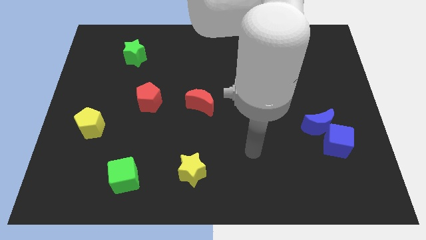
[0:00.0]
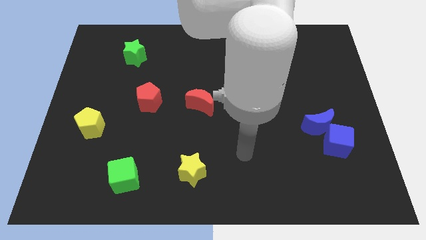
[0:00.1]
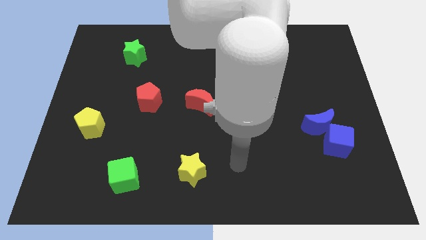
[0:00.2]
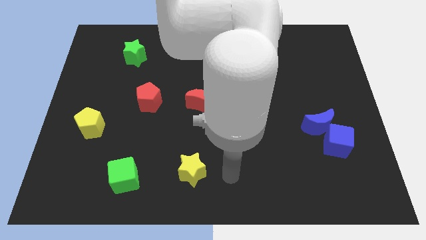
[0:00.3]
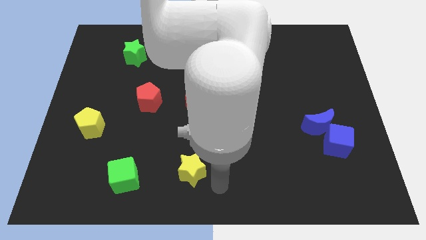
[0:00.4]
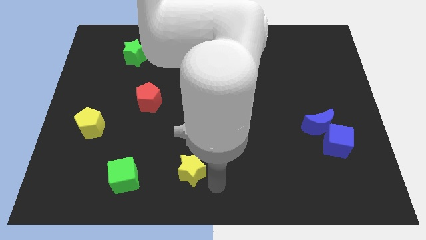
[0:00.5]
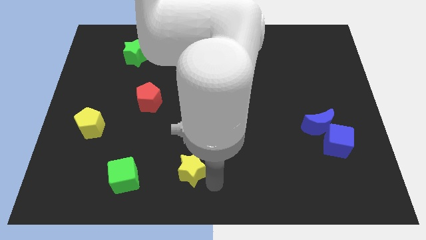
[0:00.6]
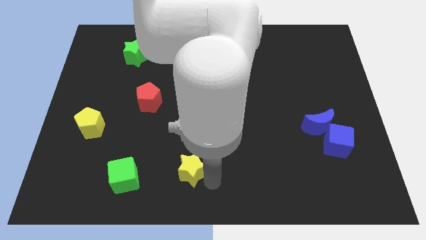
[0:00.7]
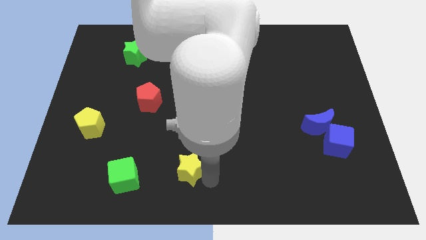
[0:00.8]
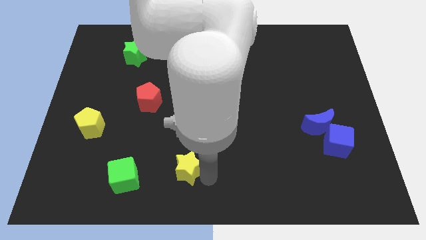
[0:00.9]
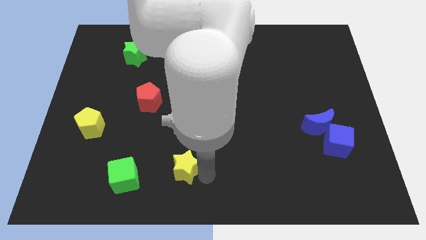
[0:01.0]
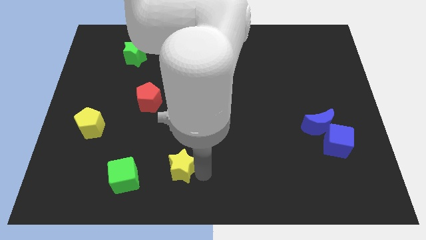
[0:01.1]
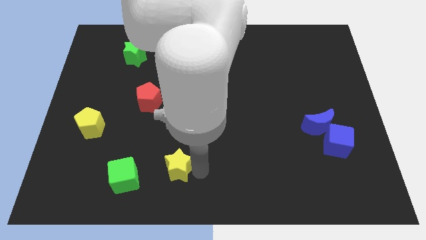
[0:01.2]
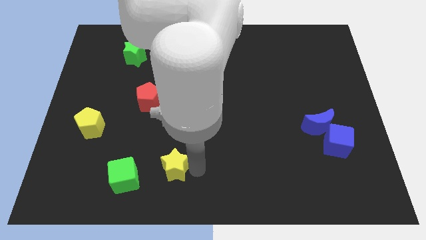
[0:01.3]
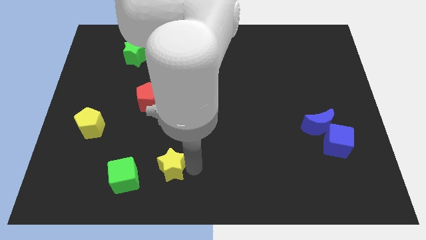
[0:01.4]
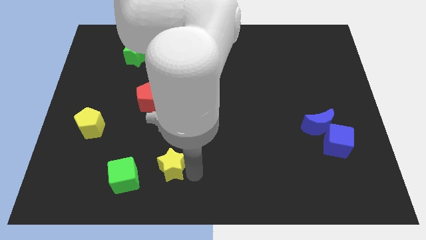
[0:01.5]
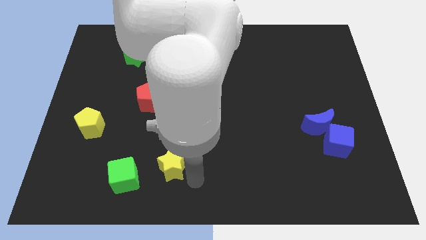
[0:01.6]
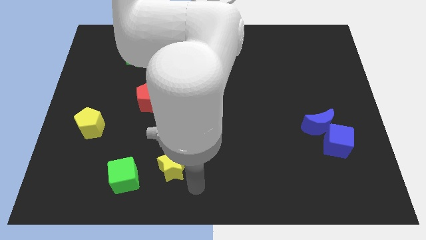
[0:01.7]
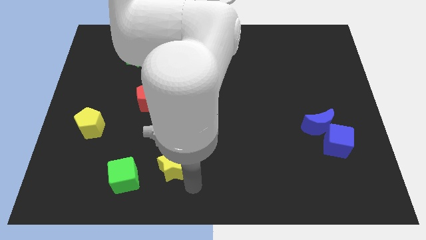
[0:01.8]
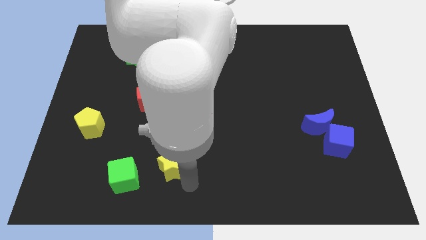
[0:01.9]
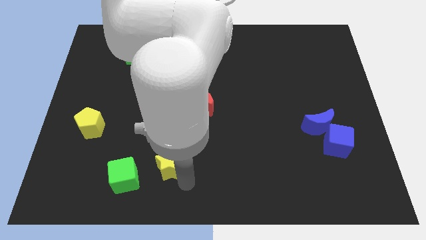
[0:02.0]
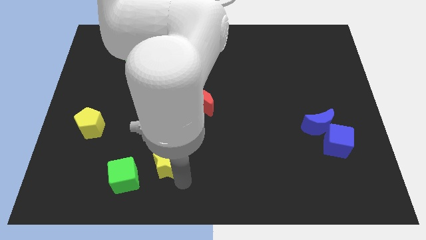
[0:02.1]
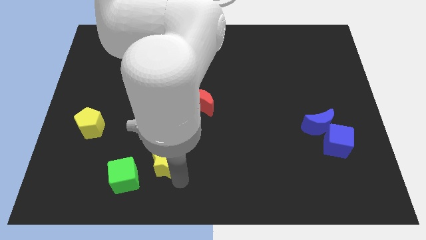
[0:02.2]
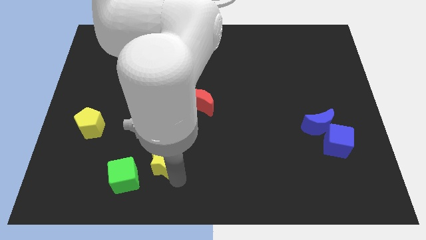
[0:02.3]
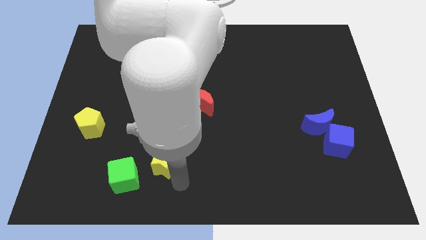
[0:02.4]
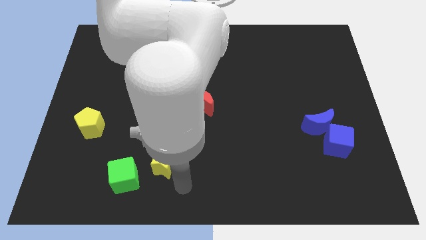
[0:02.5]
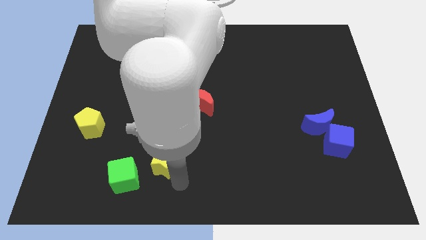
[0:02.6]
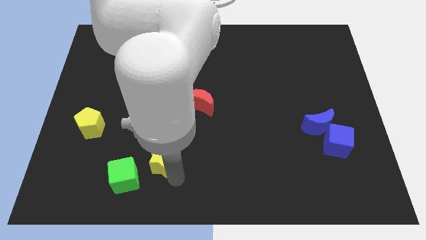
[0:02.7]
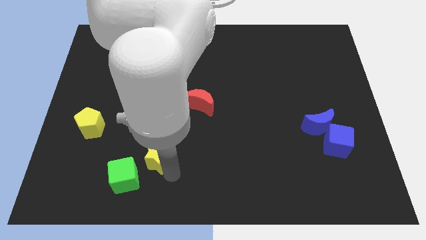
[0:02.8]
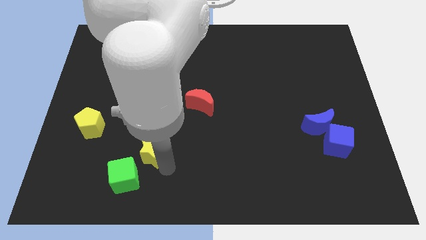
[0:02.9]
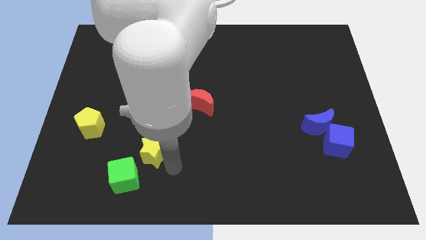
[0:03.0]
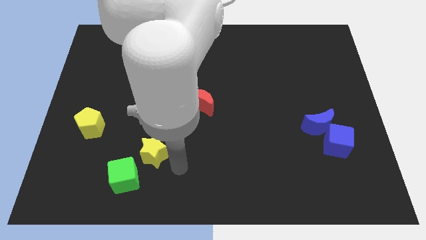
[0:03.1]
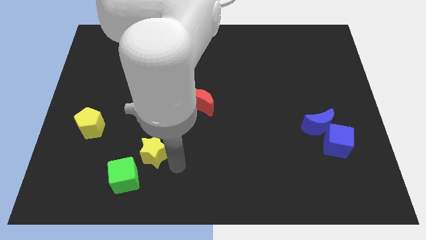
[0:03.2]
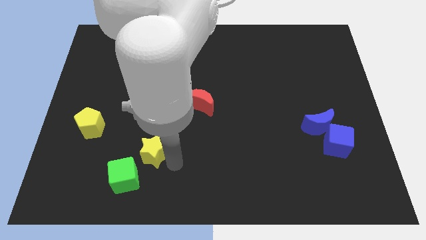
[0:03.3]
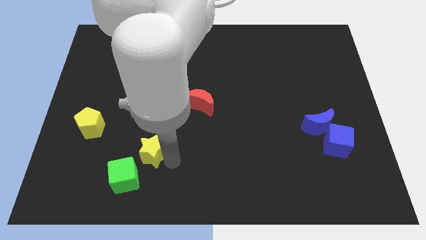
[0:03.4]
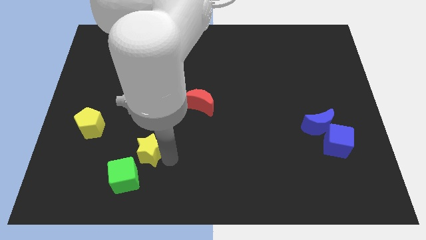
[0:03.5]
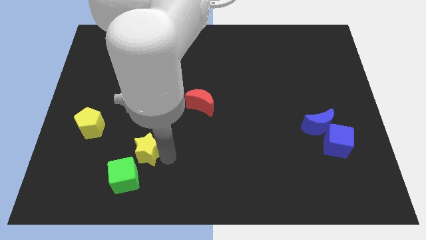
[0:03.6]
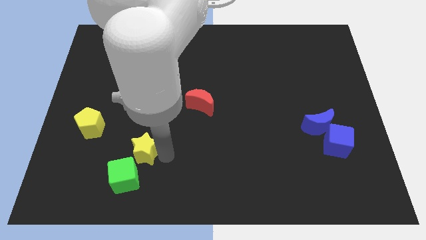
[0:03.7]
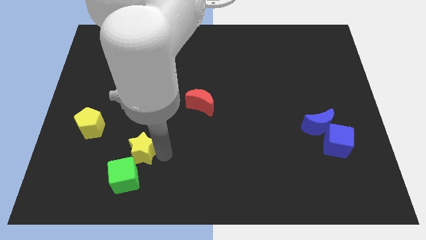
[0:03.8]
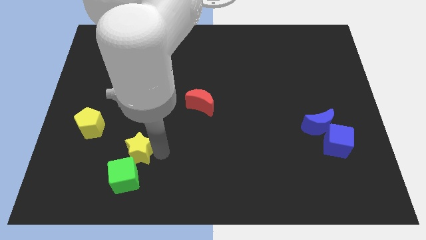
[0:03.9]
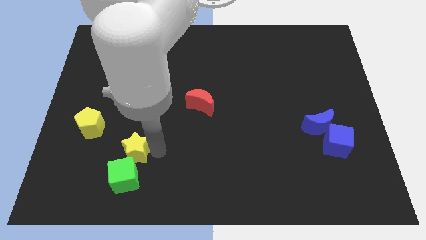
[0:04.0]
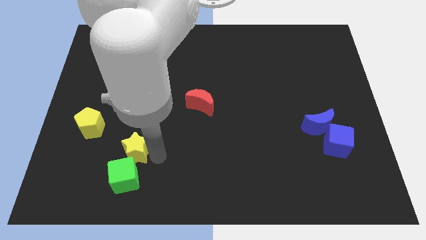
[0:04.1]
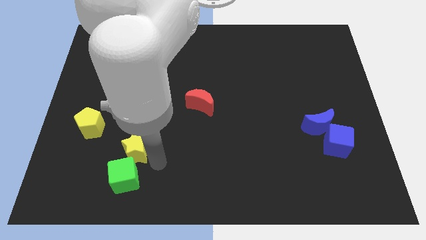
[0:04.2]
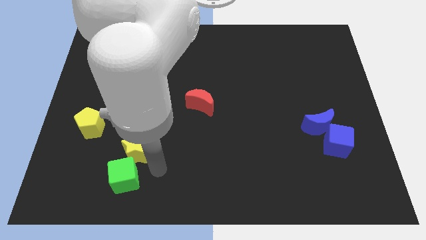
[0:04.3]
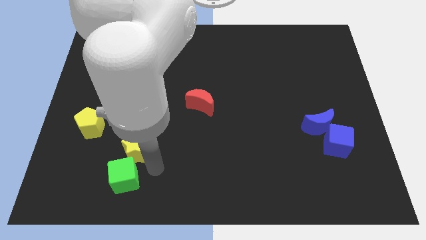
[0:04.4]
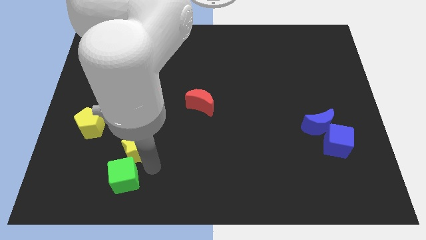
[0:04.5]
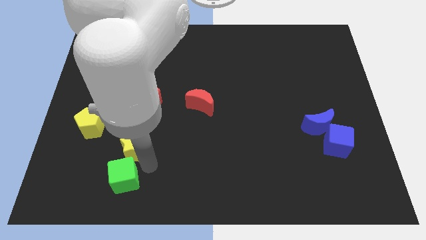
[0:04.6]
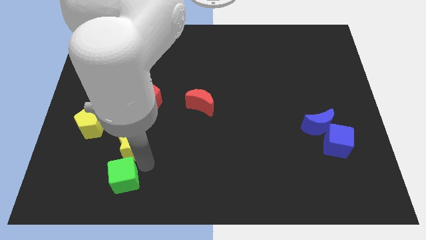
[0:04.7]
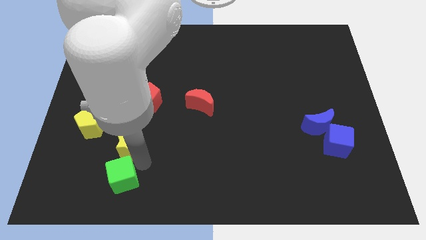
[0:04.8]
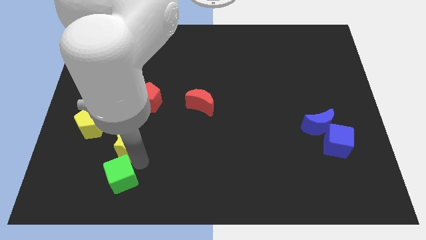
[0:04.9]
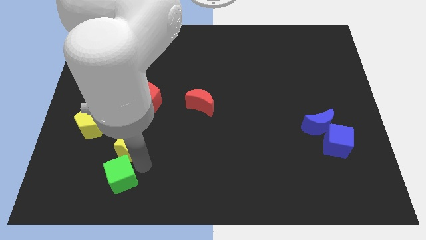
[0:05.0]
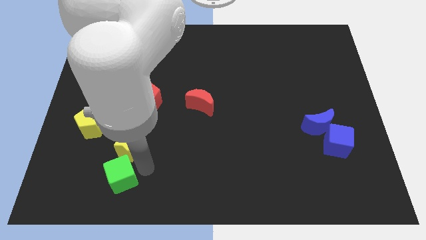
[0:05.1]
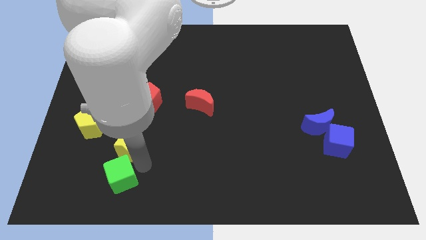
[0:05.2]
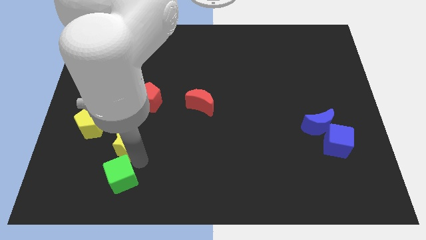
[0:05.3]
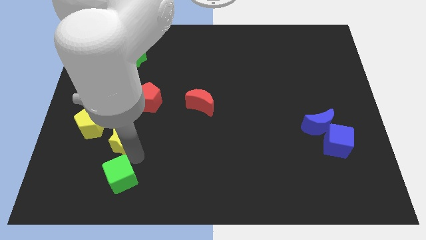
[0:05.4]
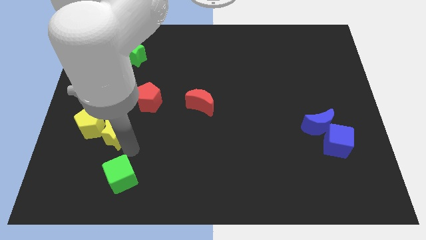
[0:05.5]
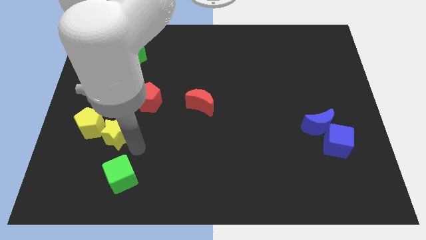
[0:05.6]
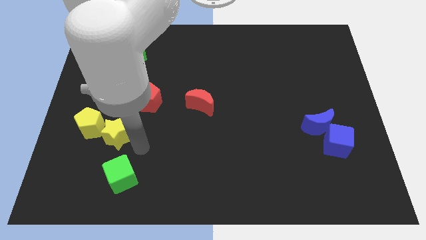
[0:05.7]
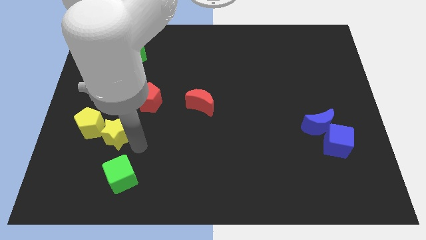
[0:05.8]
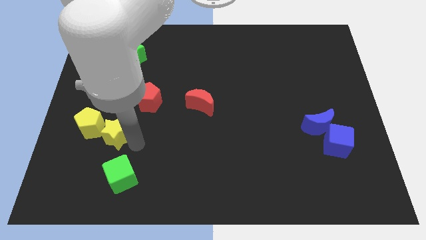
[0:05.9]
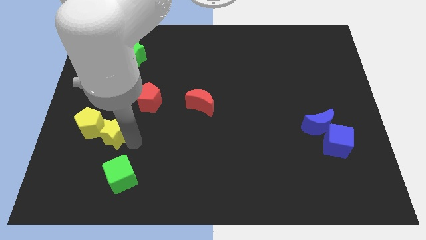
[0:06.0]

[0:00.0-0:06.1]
push the yellow star next to the yellow pentagon

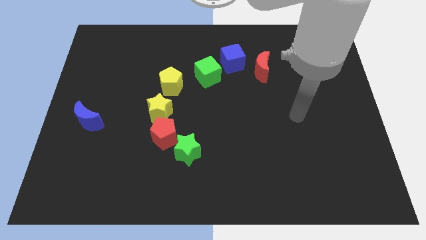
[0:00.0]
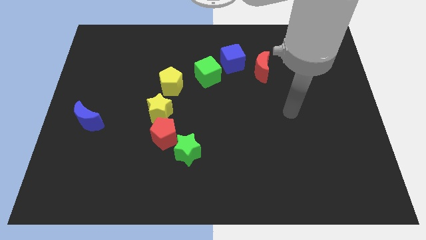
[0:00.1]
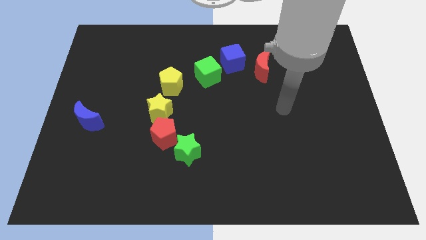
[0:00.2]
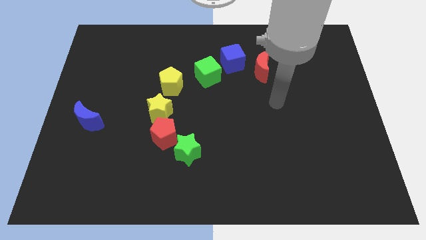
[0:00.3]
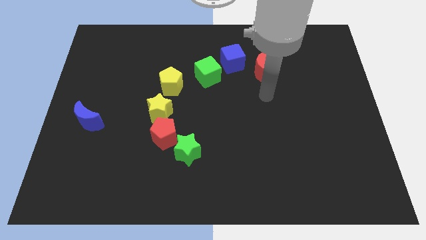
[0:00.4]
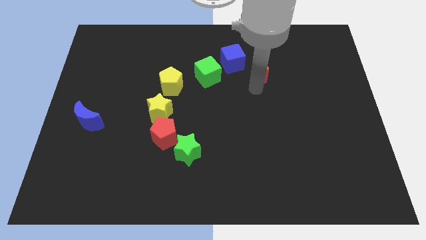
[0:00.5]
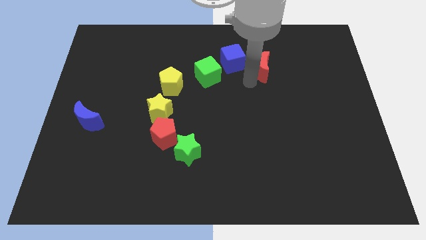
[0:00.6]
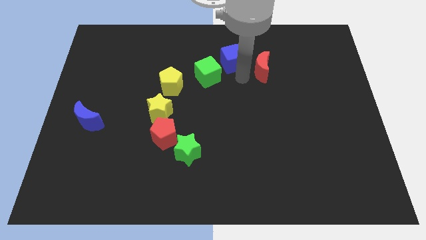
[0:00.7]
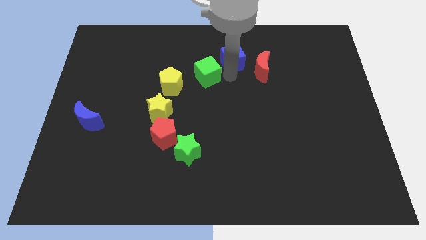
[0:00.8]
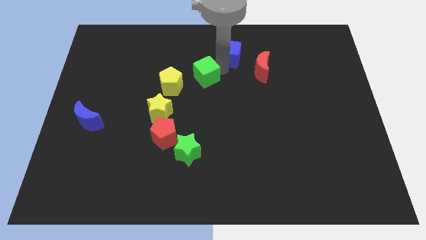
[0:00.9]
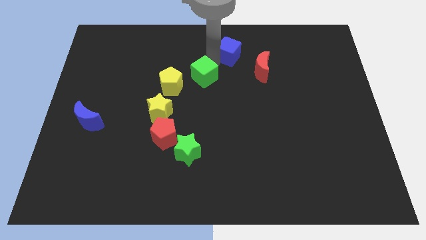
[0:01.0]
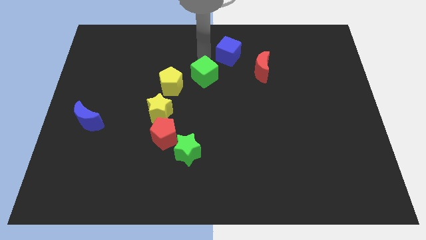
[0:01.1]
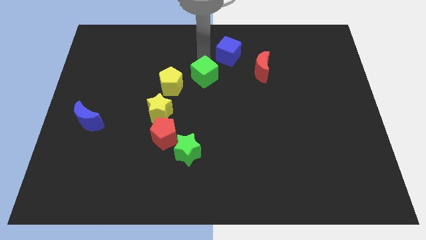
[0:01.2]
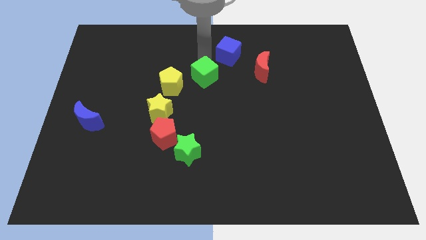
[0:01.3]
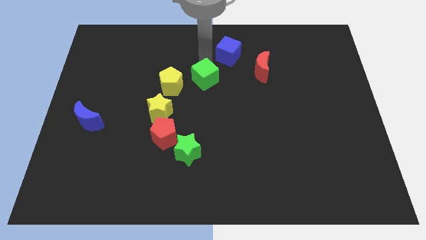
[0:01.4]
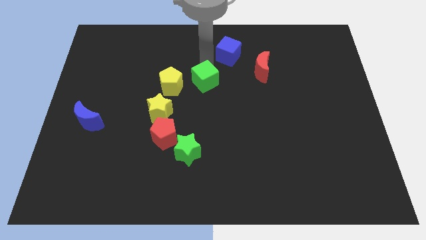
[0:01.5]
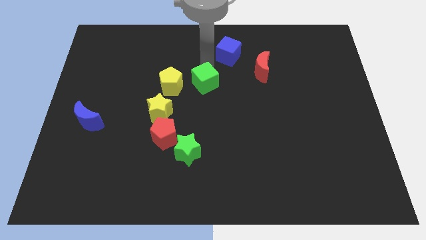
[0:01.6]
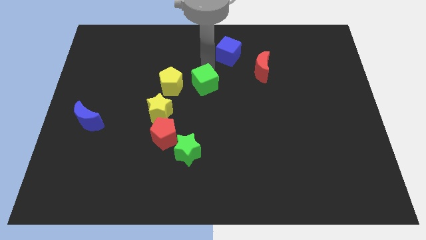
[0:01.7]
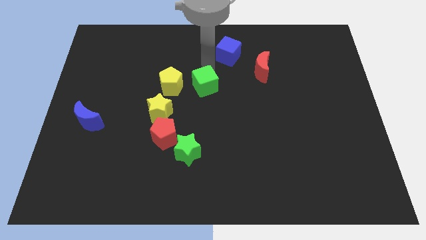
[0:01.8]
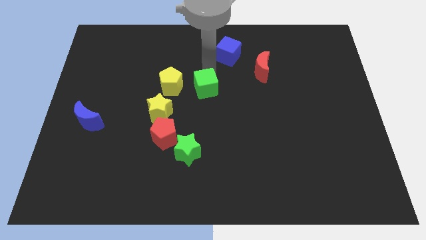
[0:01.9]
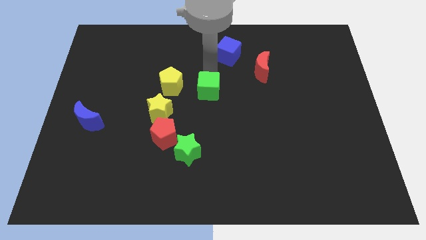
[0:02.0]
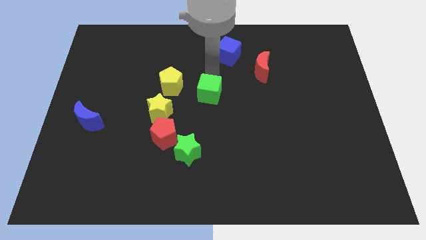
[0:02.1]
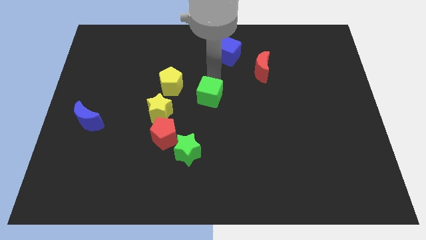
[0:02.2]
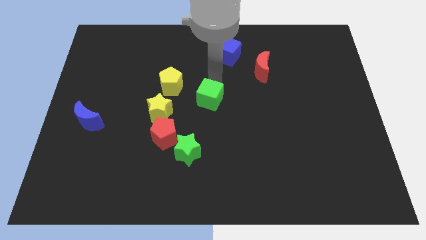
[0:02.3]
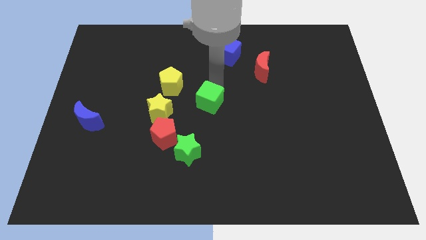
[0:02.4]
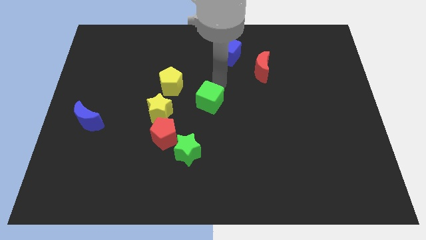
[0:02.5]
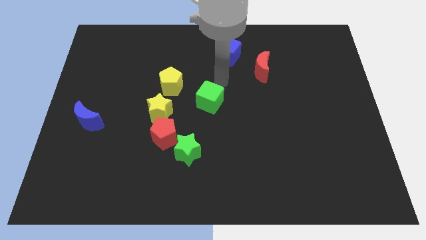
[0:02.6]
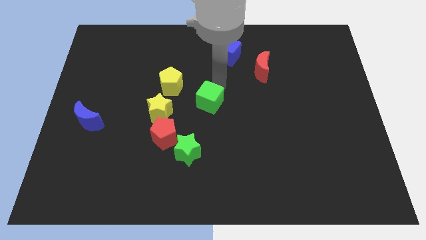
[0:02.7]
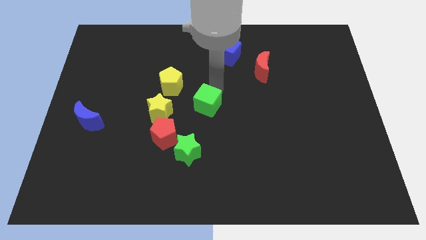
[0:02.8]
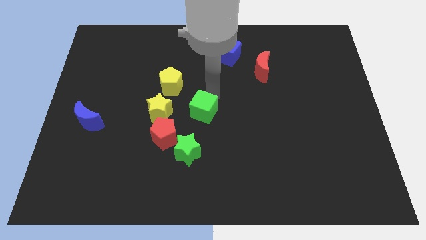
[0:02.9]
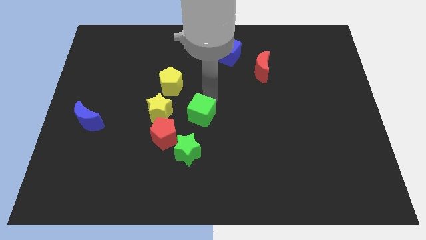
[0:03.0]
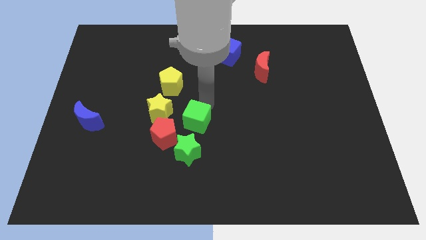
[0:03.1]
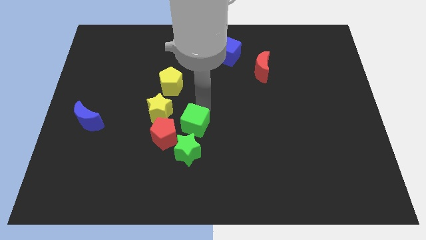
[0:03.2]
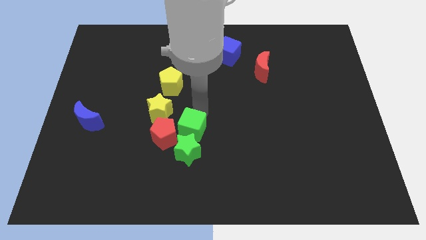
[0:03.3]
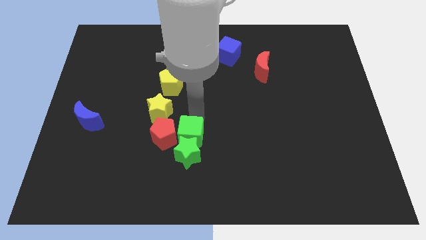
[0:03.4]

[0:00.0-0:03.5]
put the green cube towards the green star
